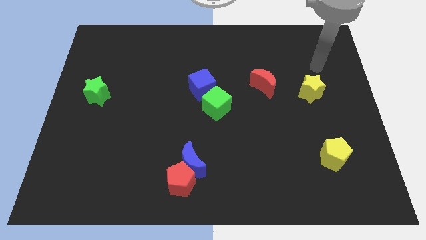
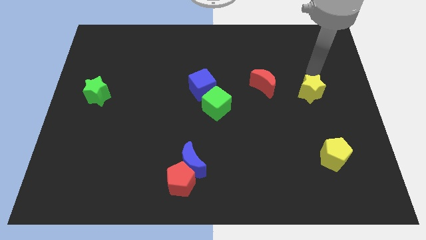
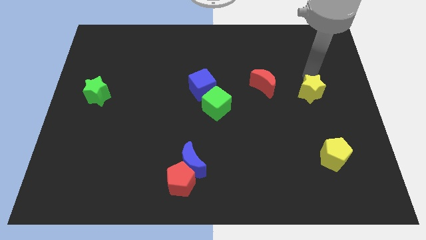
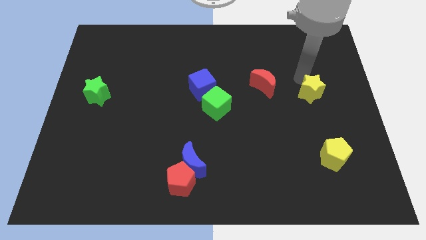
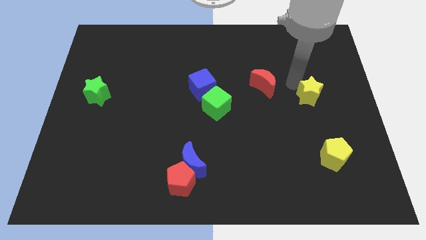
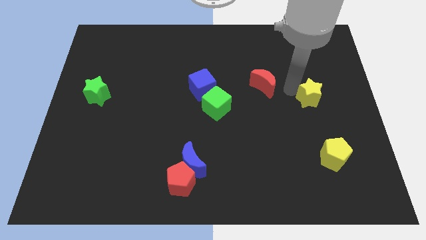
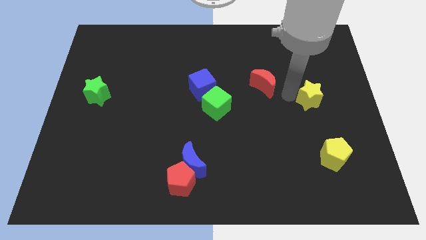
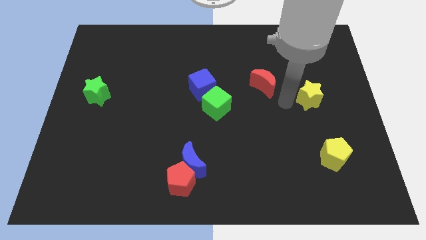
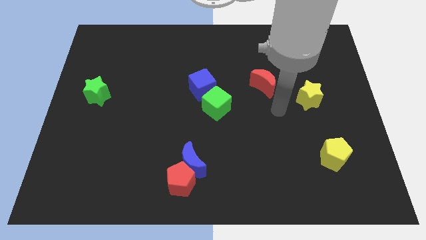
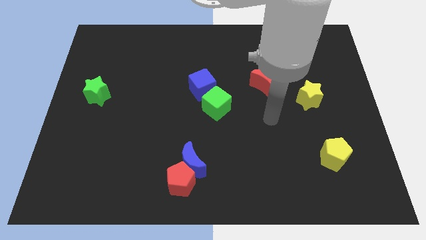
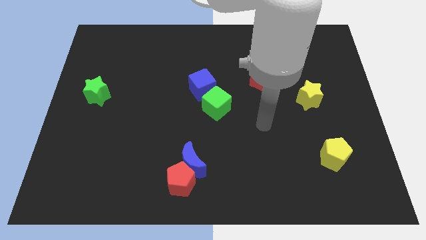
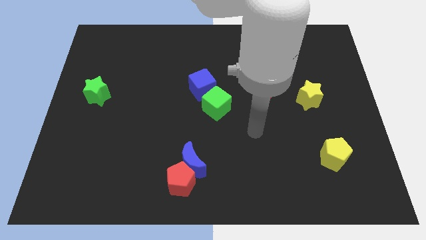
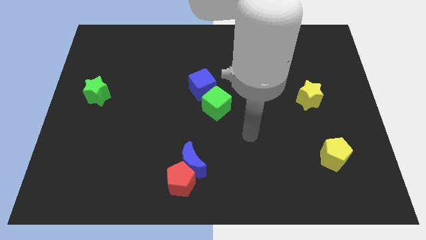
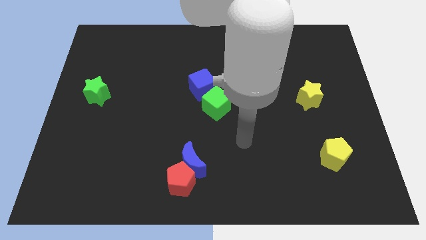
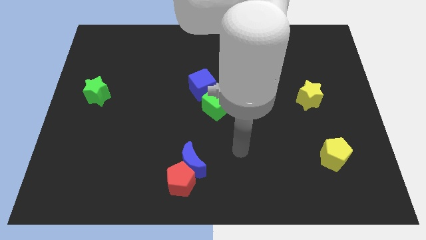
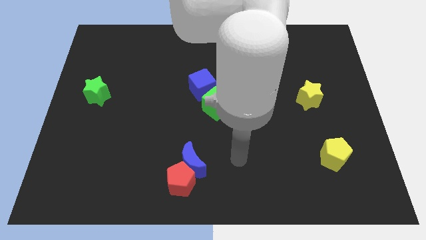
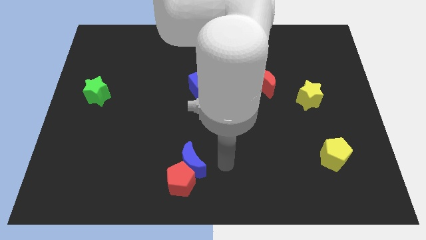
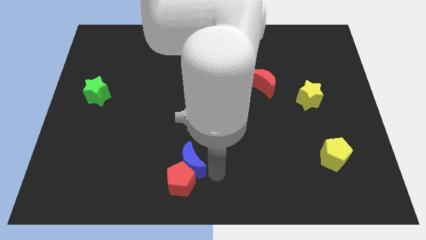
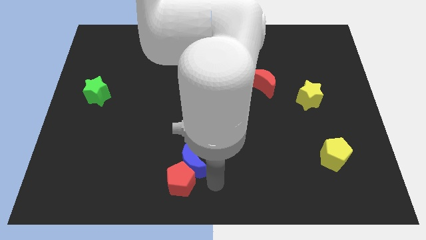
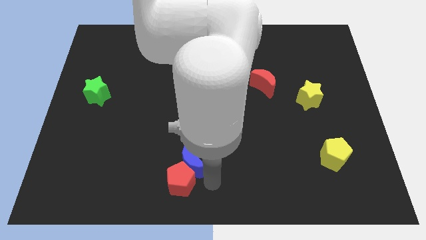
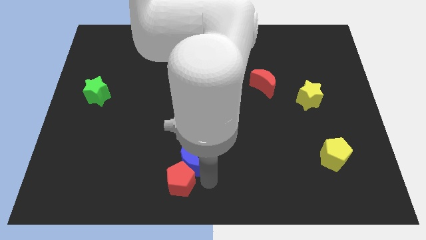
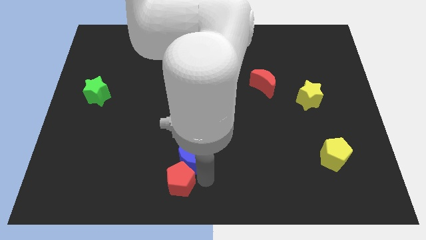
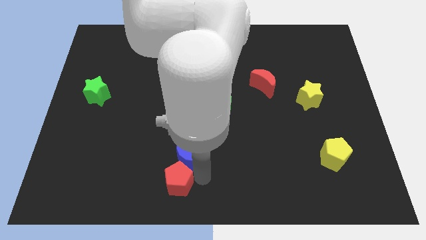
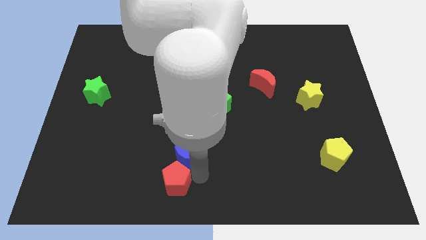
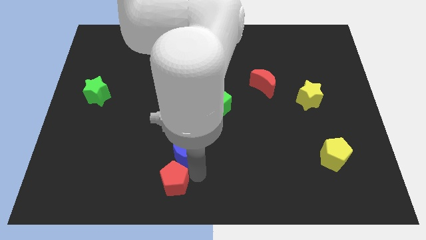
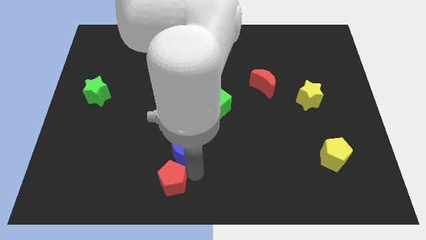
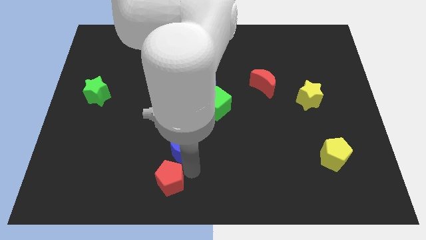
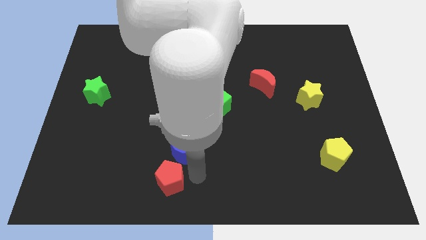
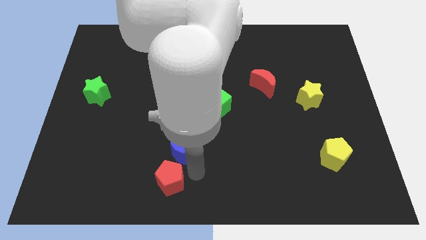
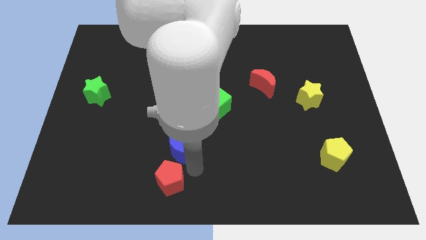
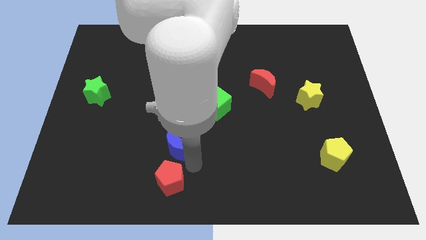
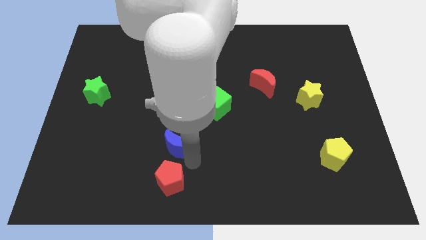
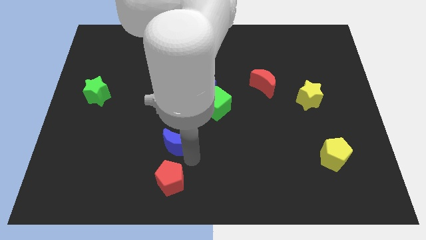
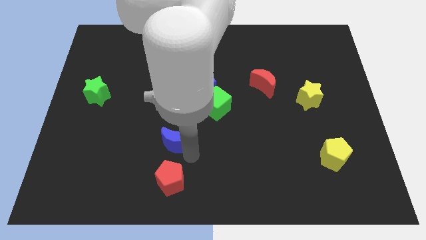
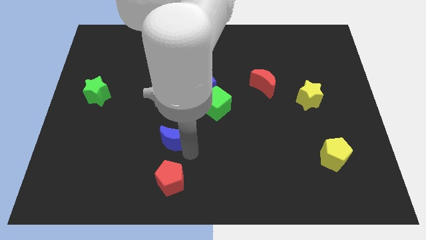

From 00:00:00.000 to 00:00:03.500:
slide the blue moon a little up and left

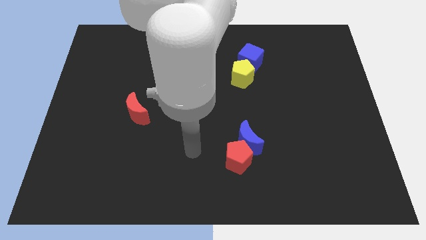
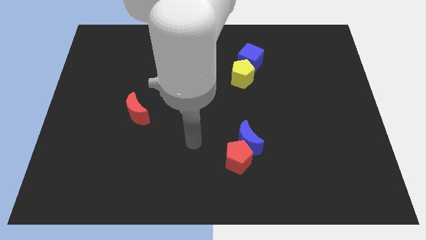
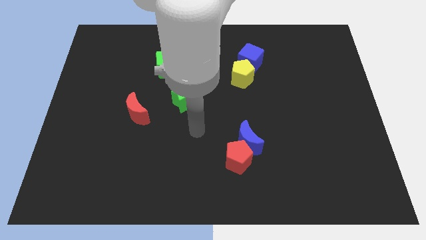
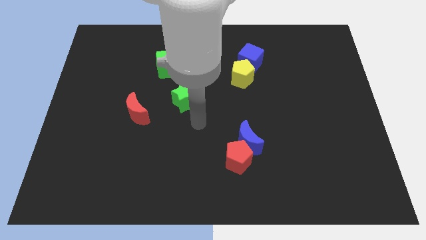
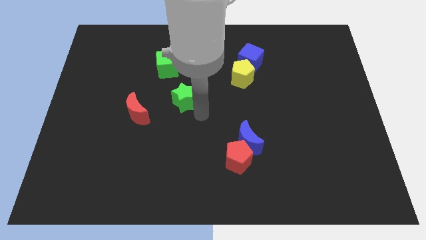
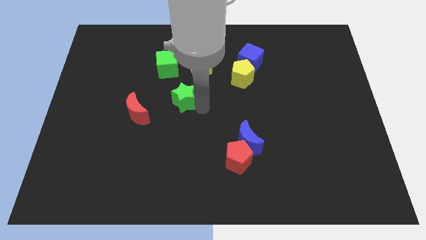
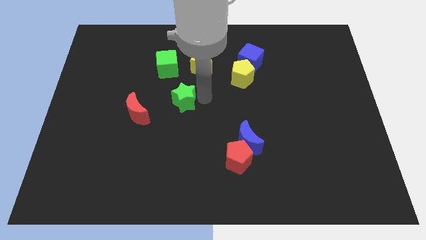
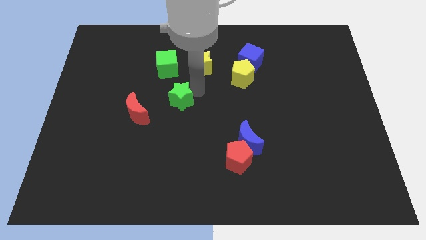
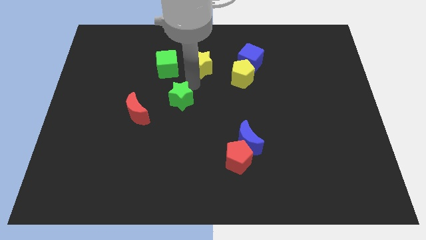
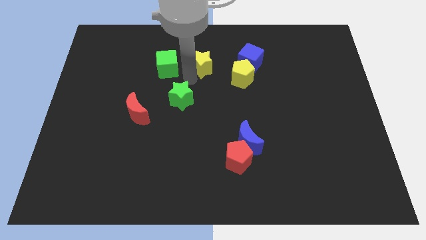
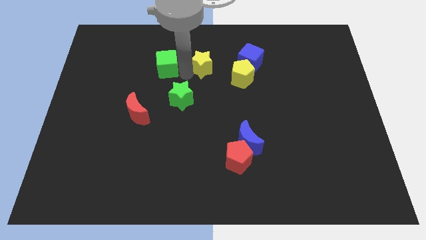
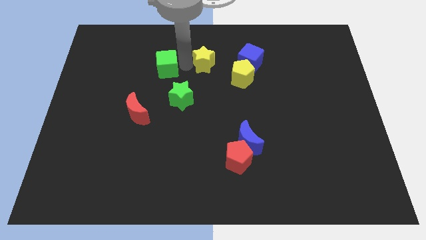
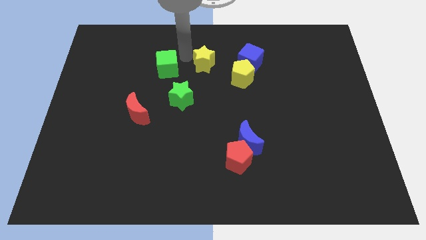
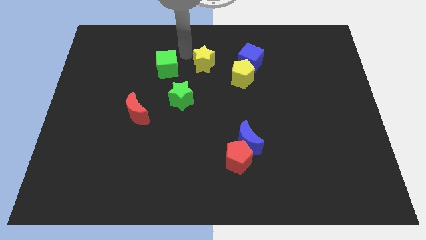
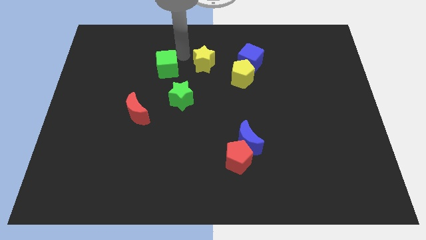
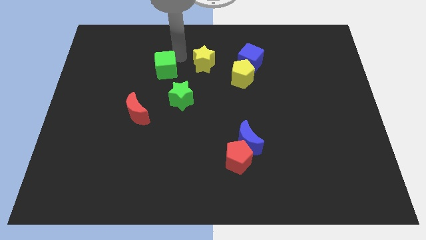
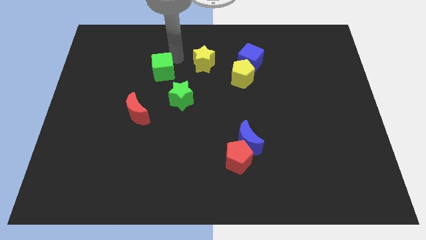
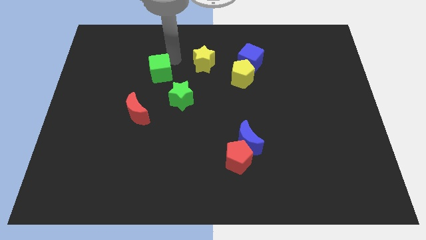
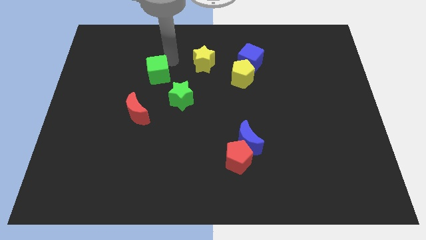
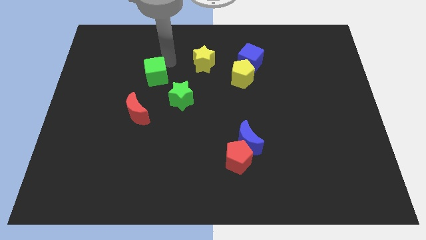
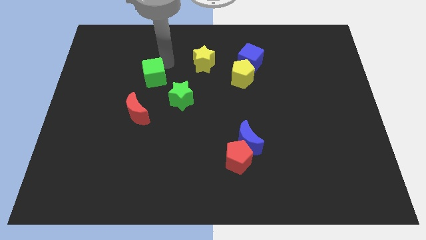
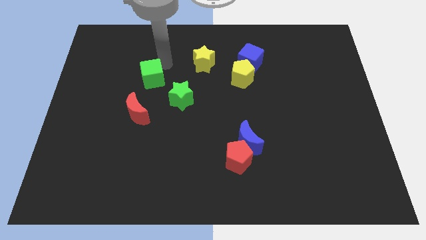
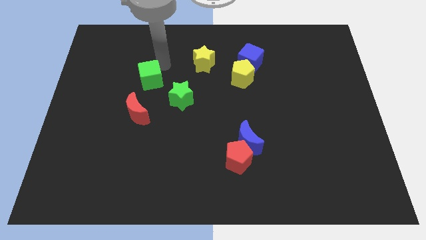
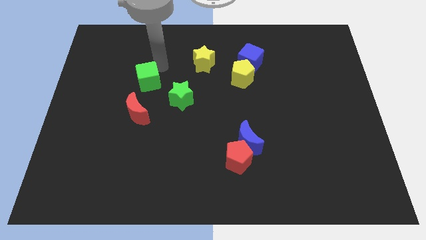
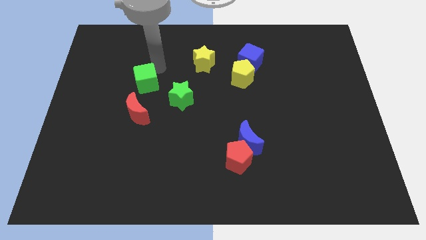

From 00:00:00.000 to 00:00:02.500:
push the green cube somewhat down and left diagonally

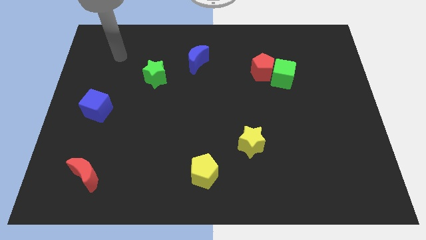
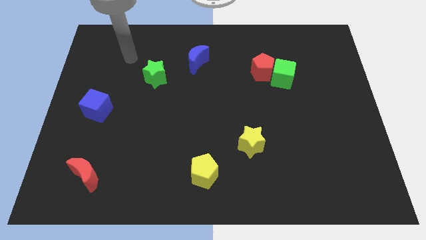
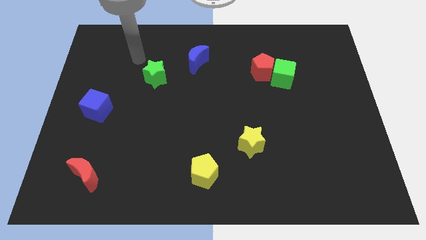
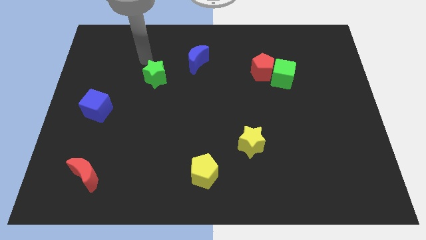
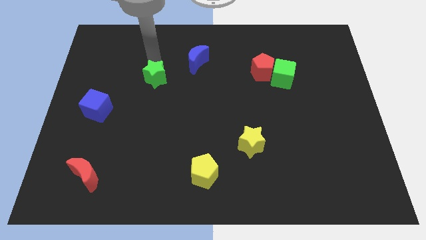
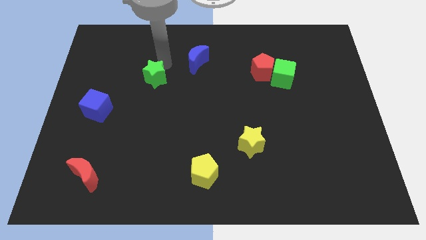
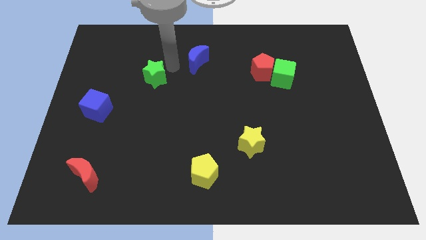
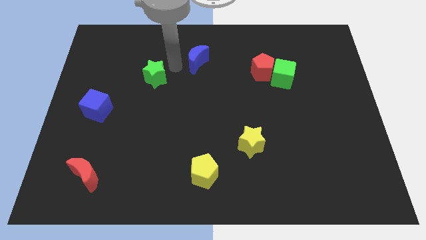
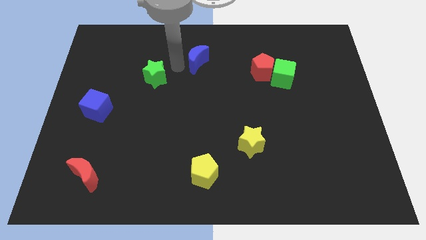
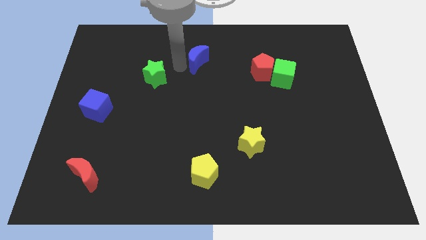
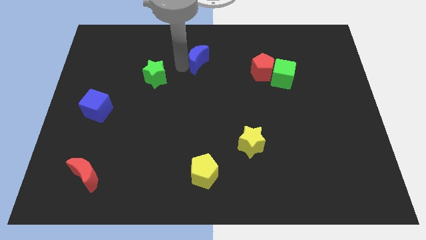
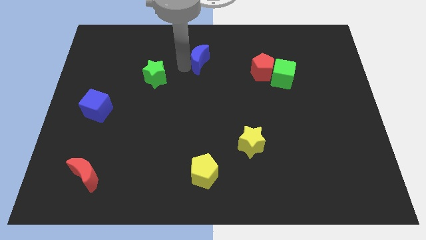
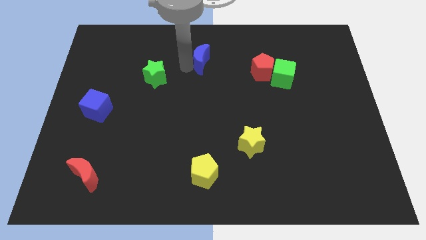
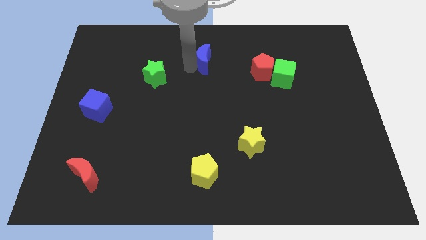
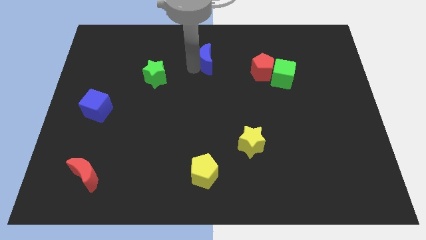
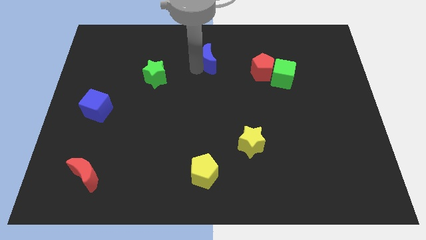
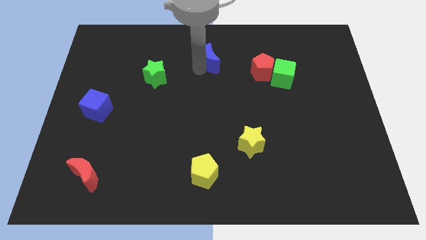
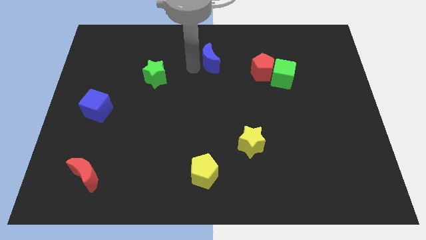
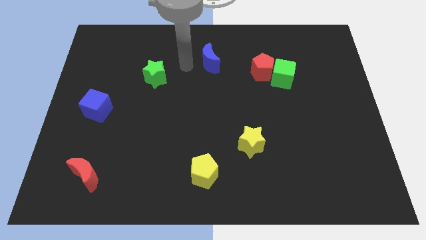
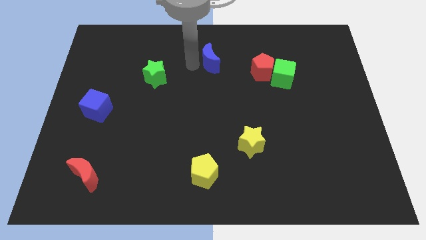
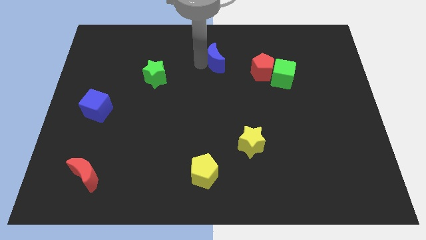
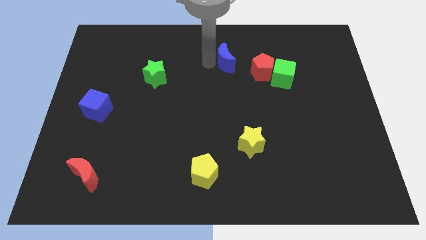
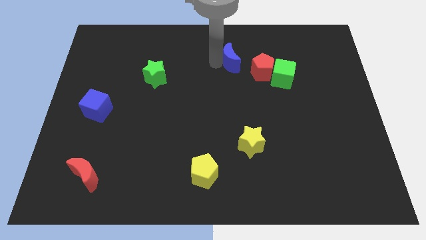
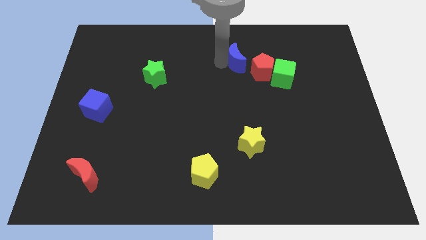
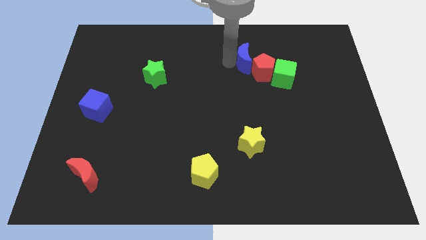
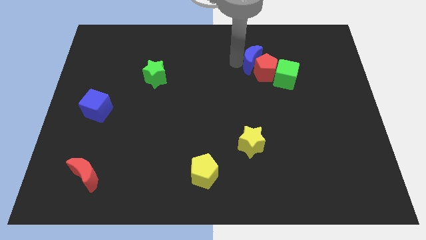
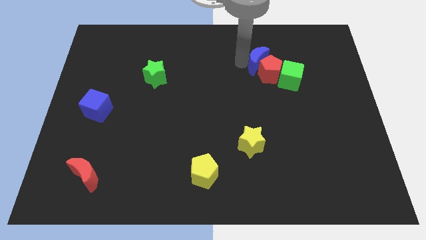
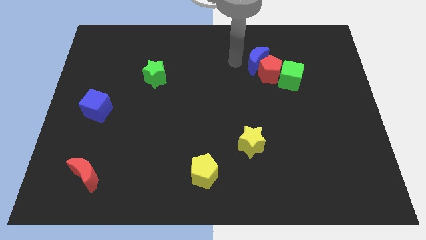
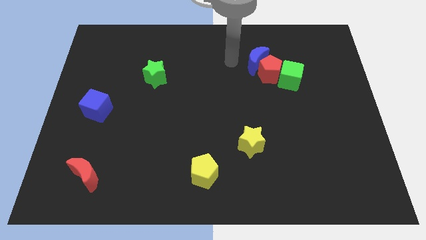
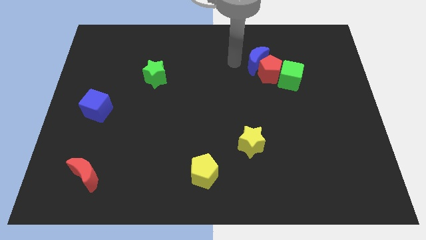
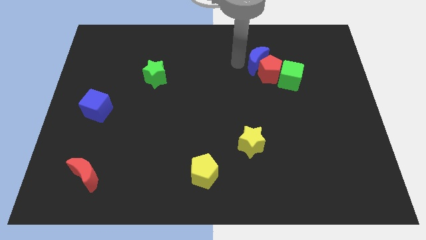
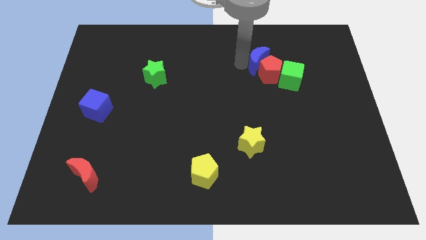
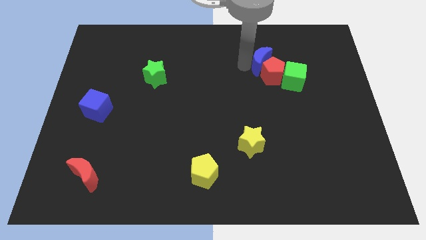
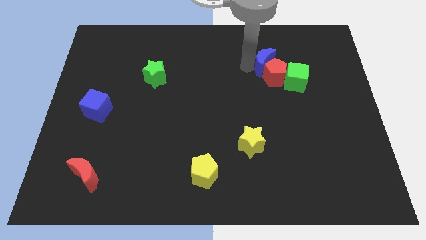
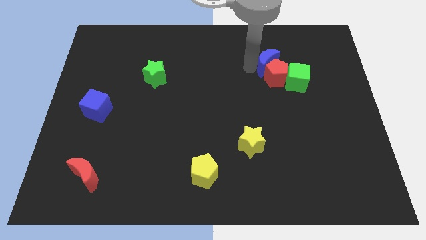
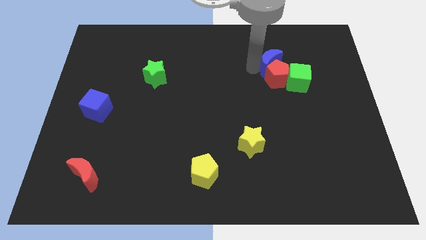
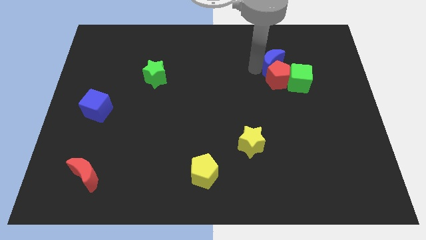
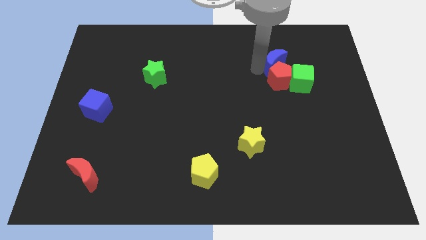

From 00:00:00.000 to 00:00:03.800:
move the blue moon to the right
